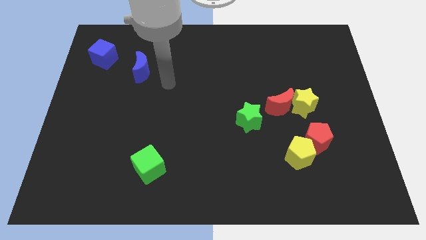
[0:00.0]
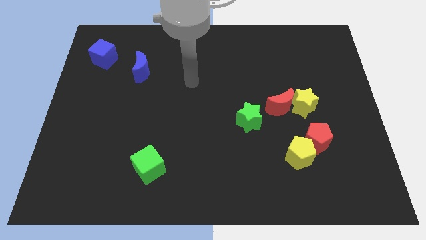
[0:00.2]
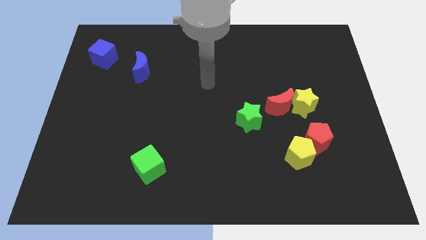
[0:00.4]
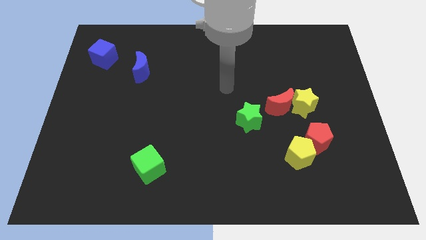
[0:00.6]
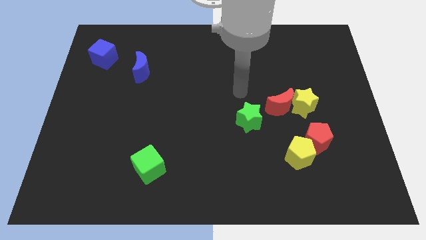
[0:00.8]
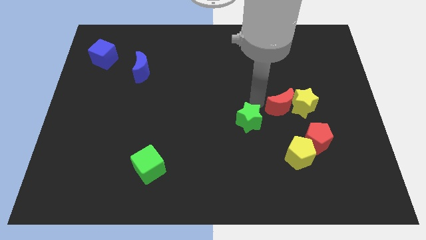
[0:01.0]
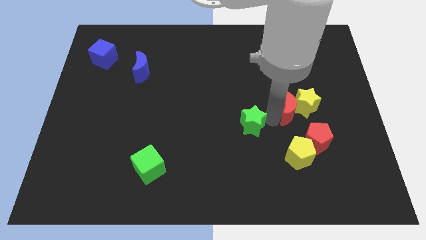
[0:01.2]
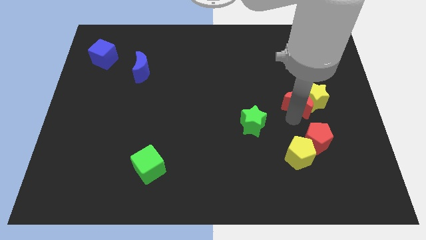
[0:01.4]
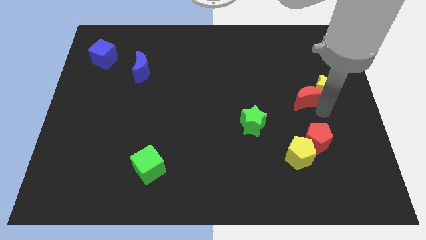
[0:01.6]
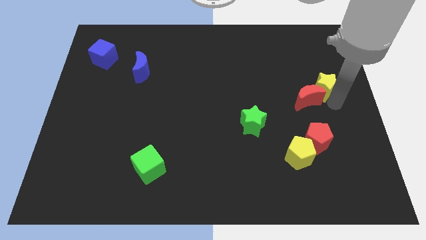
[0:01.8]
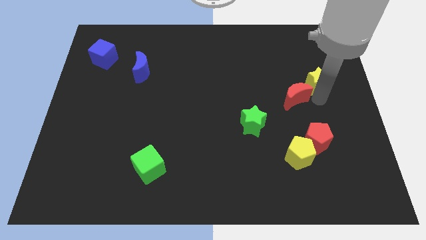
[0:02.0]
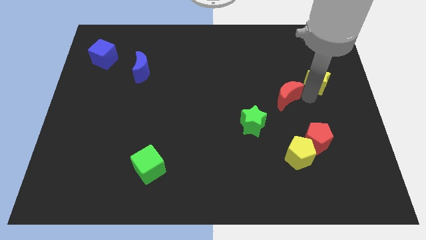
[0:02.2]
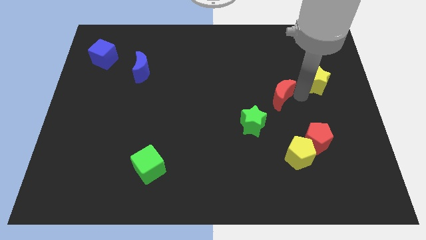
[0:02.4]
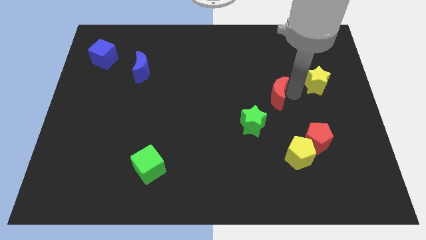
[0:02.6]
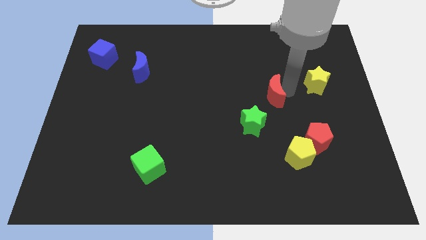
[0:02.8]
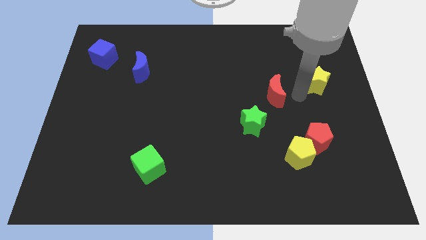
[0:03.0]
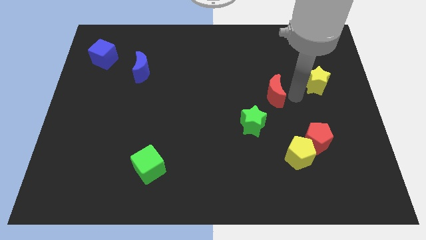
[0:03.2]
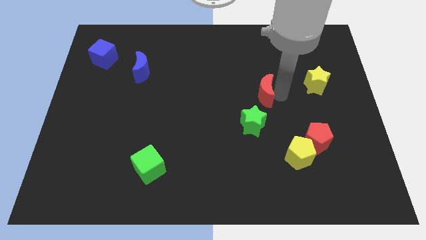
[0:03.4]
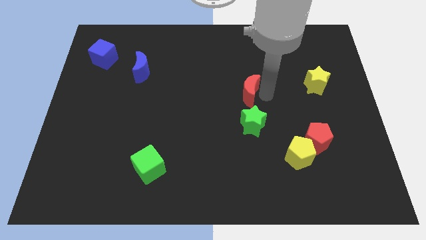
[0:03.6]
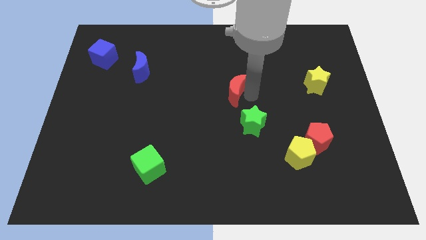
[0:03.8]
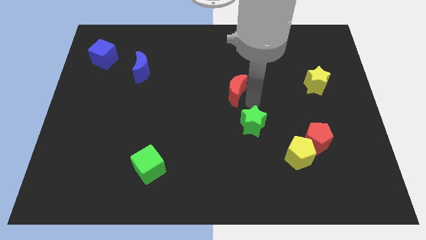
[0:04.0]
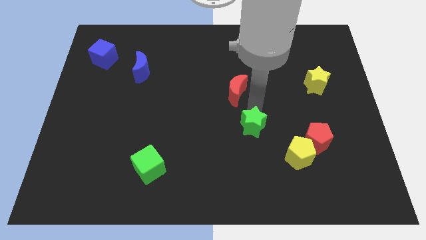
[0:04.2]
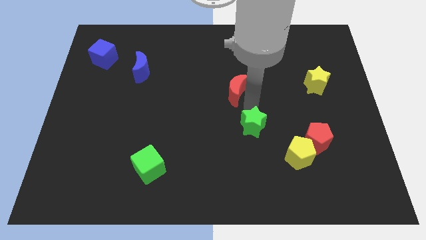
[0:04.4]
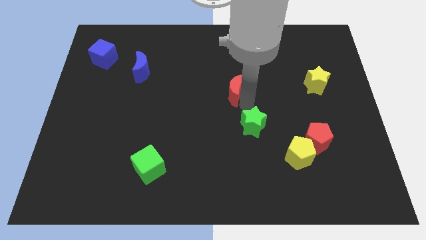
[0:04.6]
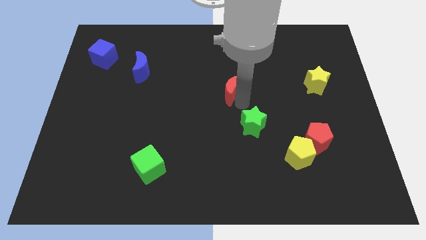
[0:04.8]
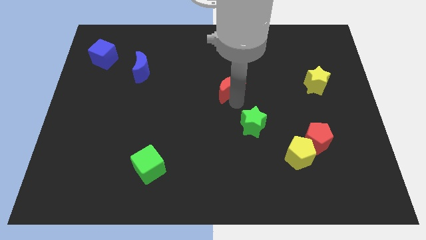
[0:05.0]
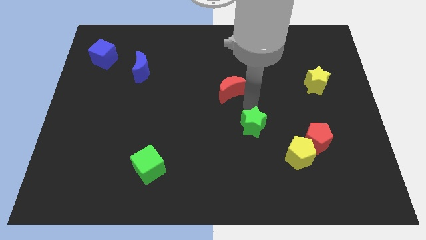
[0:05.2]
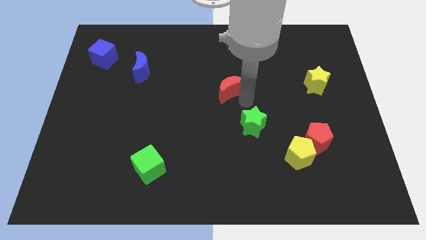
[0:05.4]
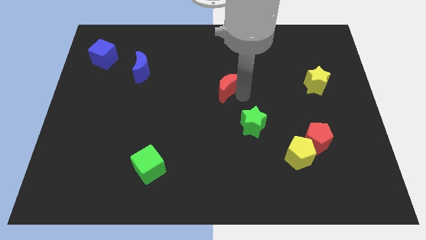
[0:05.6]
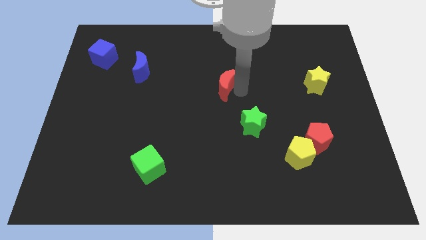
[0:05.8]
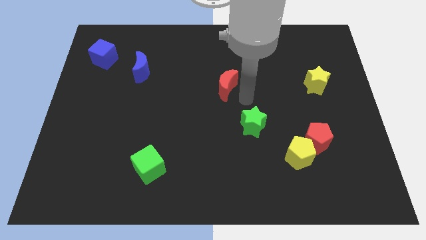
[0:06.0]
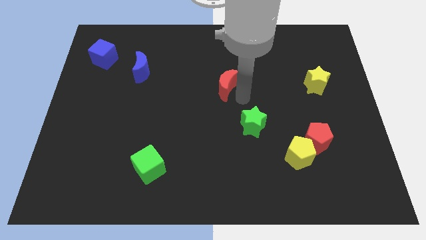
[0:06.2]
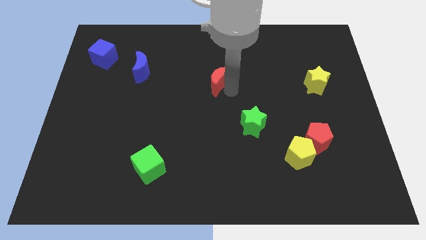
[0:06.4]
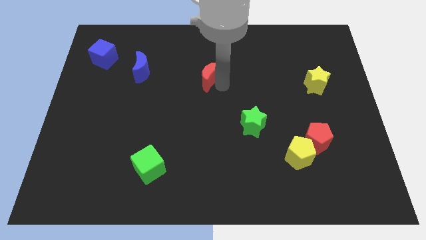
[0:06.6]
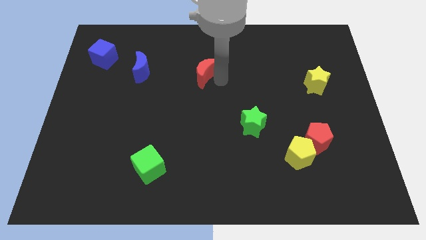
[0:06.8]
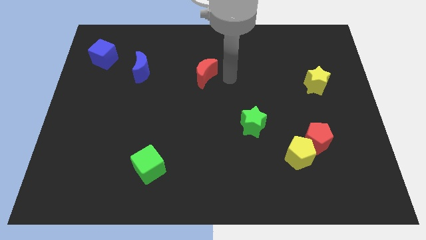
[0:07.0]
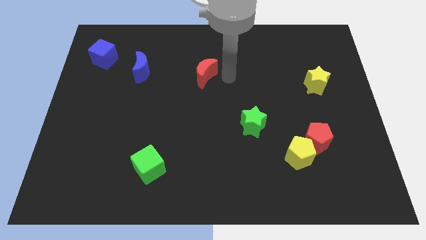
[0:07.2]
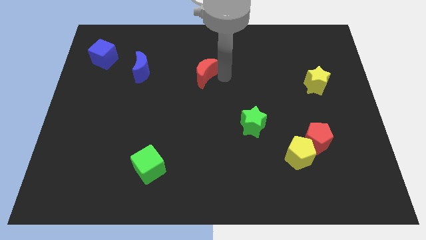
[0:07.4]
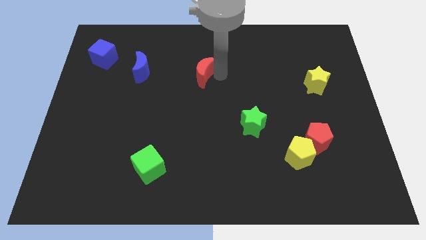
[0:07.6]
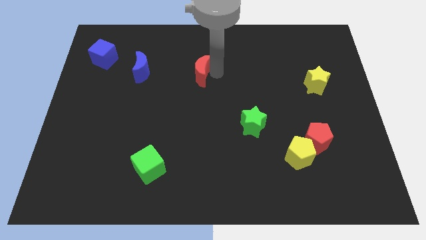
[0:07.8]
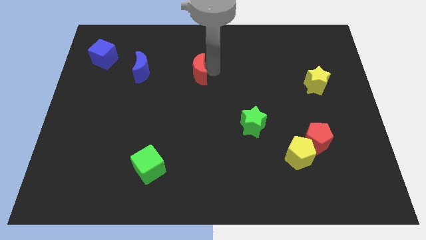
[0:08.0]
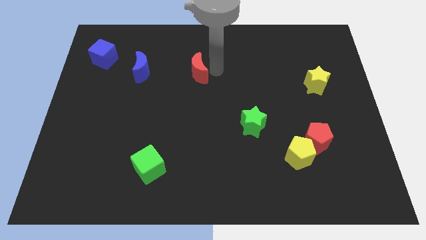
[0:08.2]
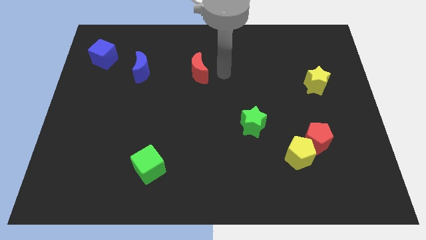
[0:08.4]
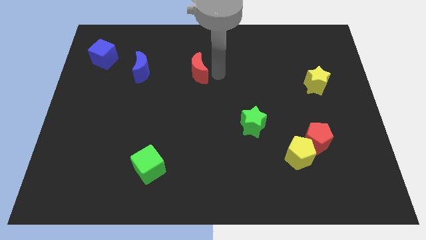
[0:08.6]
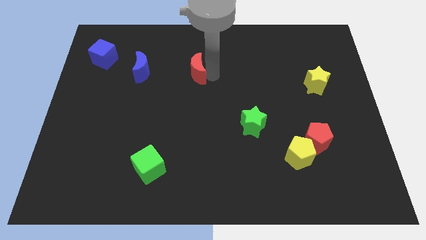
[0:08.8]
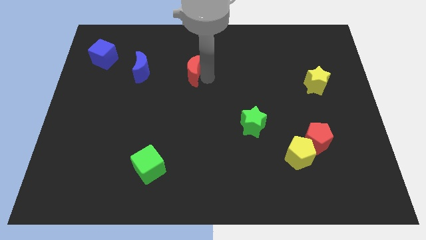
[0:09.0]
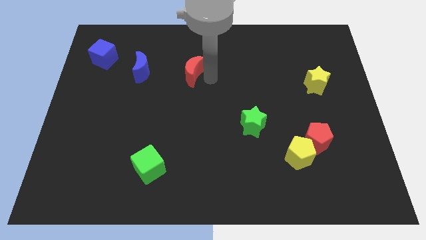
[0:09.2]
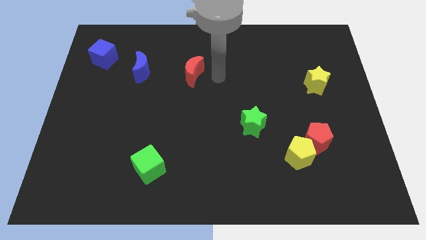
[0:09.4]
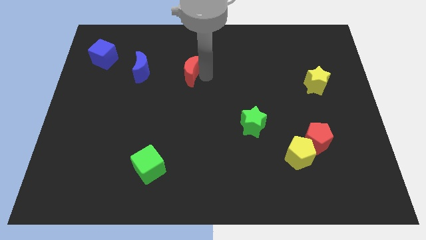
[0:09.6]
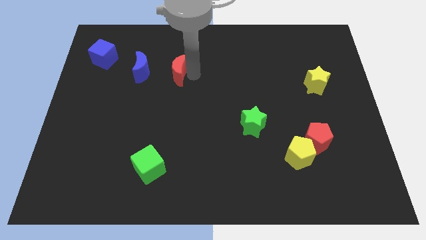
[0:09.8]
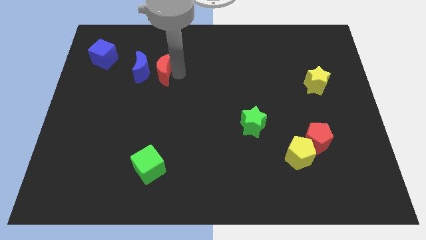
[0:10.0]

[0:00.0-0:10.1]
slide the red moon to the blue moon

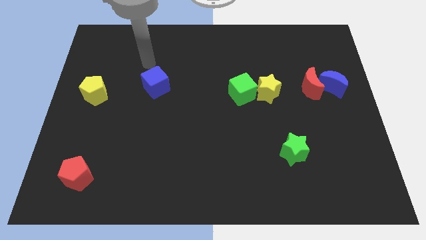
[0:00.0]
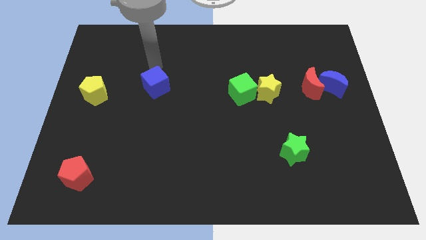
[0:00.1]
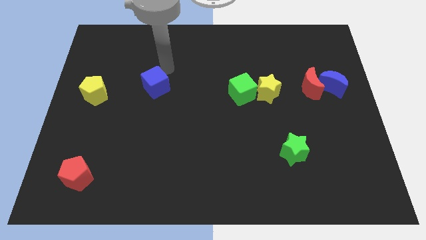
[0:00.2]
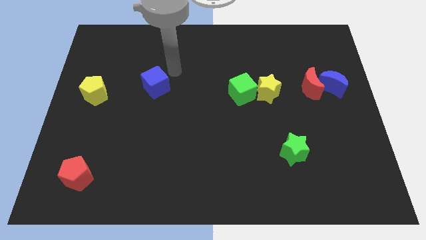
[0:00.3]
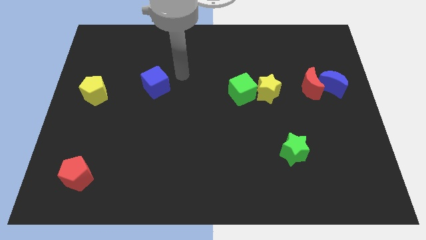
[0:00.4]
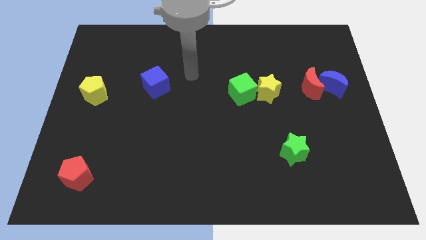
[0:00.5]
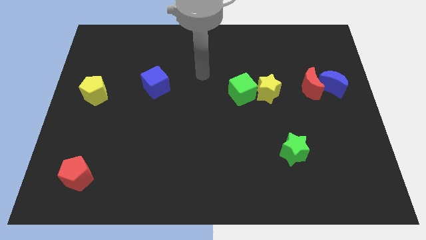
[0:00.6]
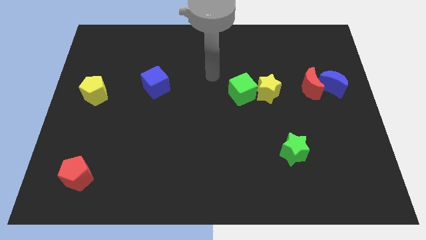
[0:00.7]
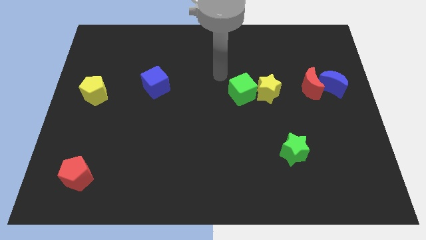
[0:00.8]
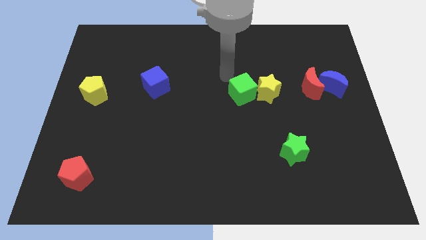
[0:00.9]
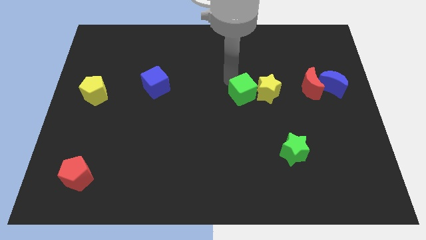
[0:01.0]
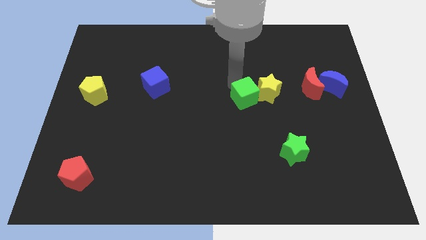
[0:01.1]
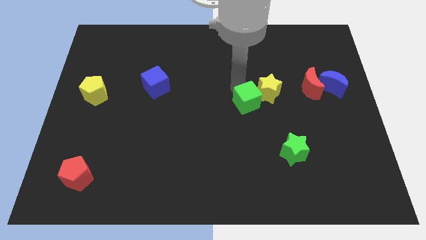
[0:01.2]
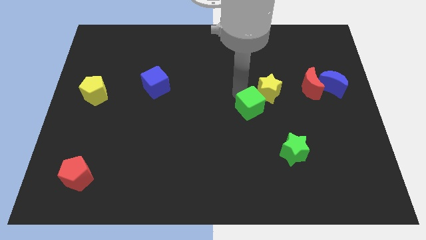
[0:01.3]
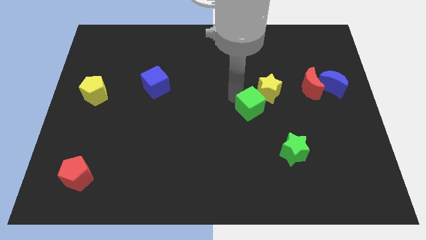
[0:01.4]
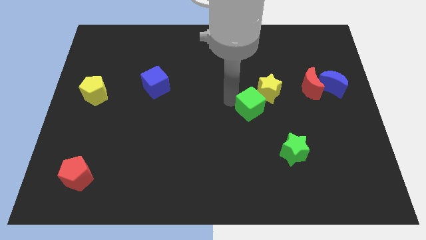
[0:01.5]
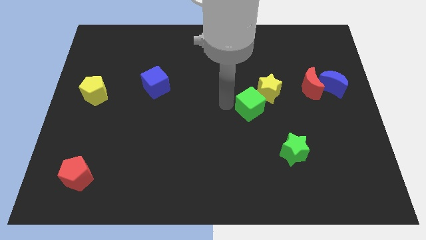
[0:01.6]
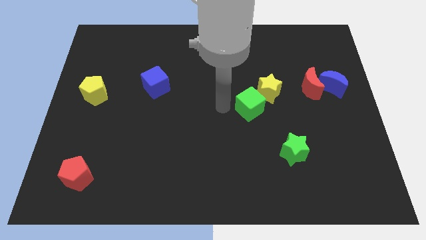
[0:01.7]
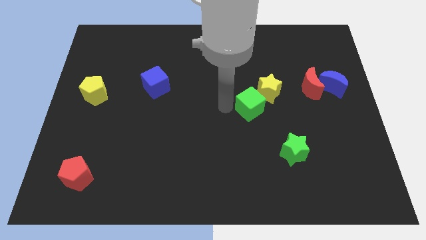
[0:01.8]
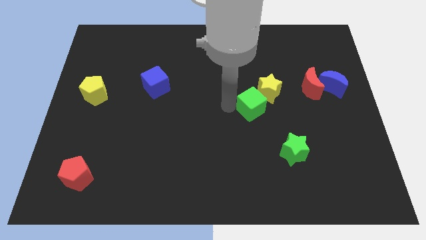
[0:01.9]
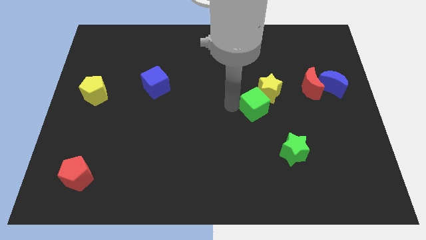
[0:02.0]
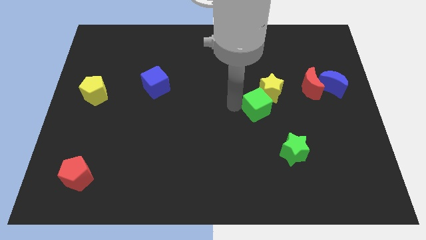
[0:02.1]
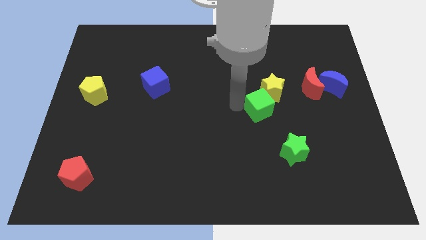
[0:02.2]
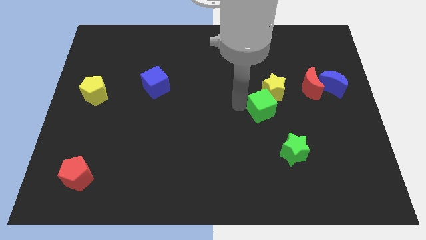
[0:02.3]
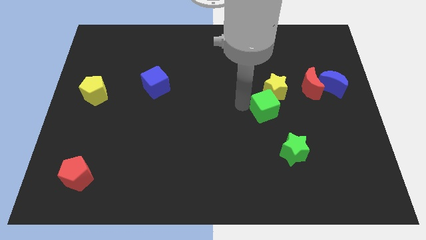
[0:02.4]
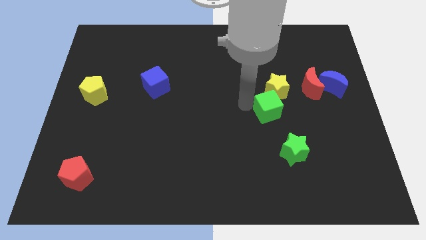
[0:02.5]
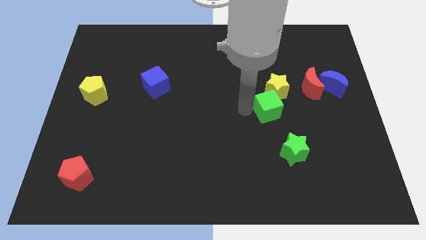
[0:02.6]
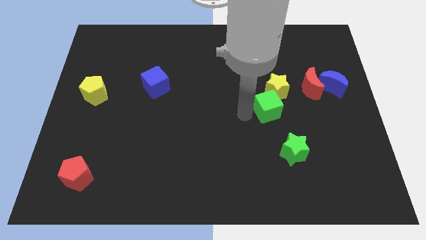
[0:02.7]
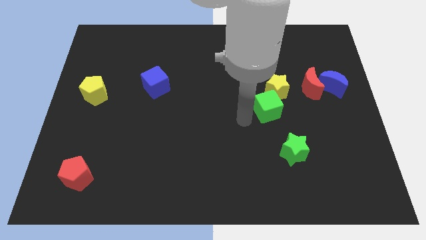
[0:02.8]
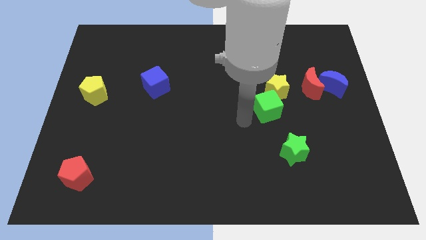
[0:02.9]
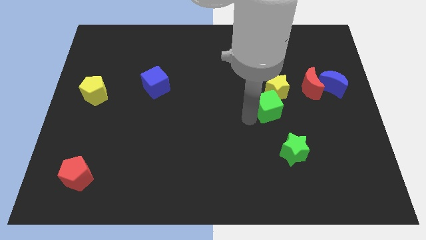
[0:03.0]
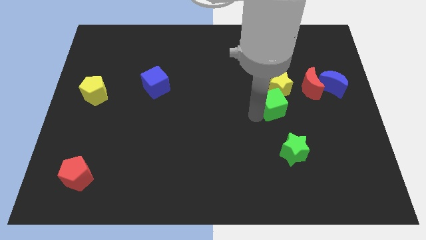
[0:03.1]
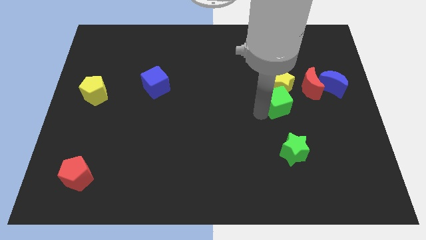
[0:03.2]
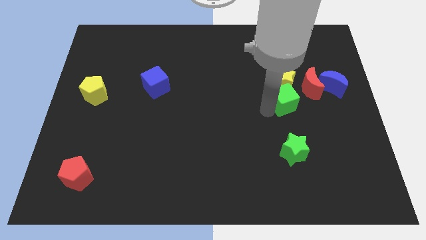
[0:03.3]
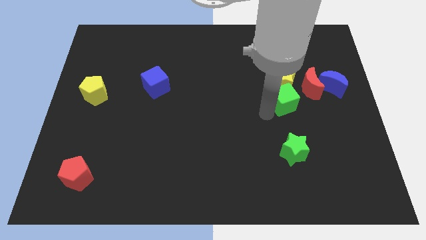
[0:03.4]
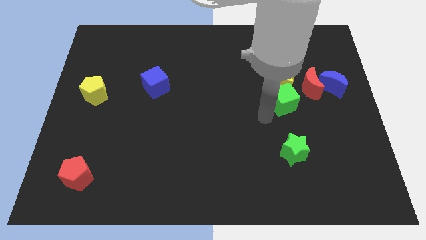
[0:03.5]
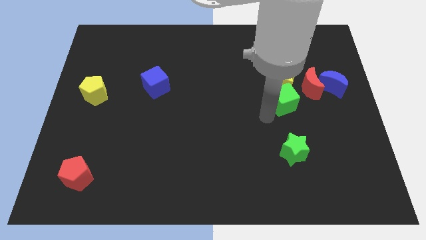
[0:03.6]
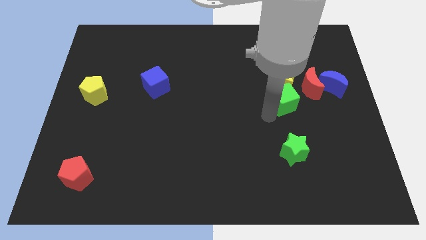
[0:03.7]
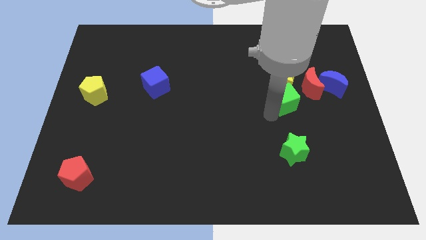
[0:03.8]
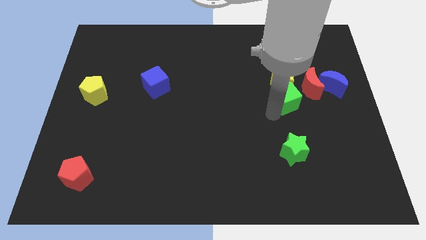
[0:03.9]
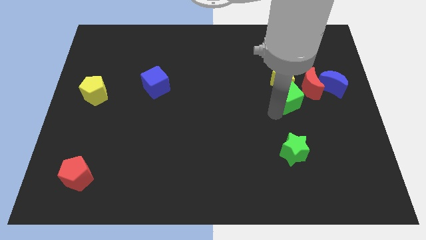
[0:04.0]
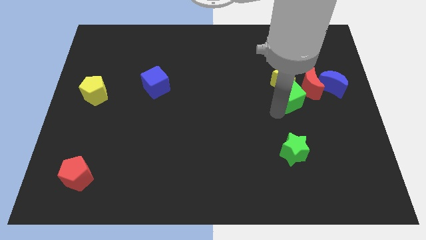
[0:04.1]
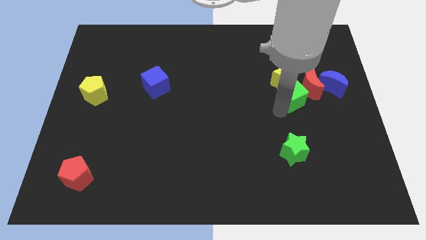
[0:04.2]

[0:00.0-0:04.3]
slide the green cube towards the red moon
